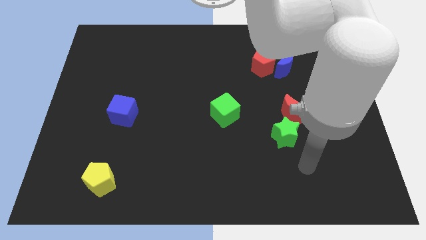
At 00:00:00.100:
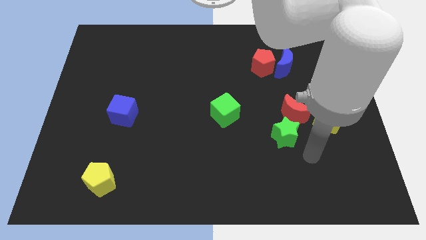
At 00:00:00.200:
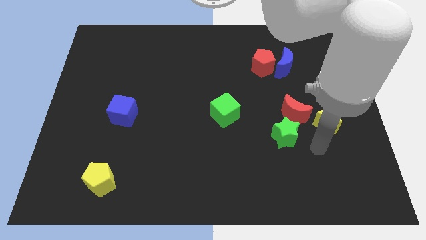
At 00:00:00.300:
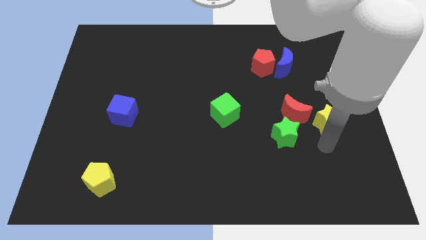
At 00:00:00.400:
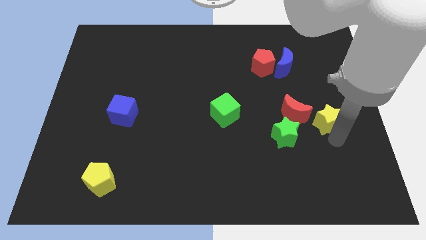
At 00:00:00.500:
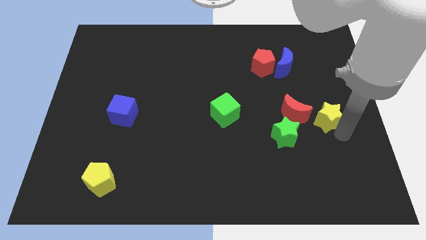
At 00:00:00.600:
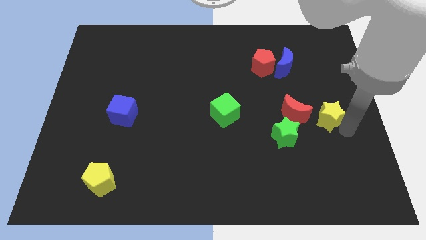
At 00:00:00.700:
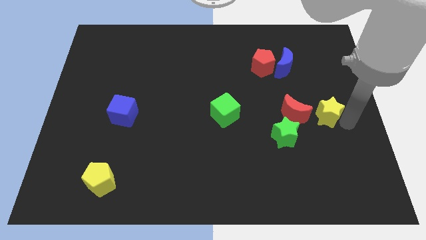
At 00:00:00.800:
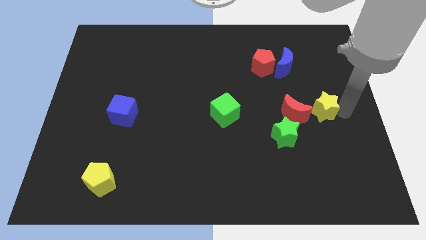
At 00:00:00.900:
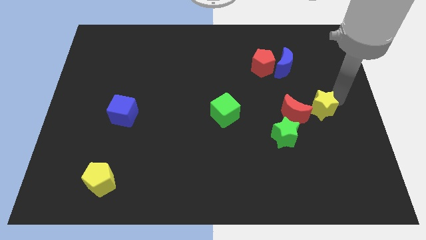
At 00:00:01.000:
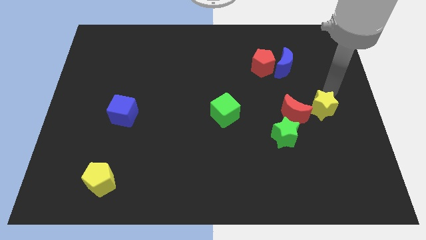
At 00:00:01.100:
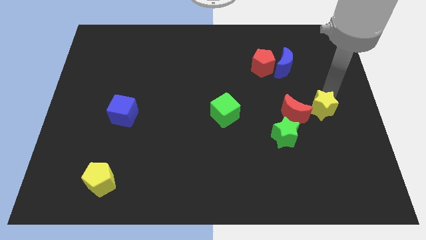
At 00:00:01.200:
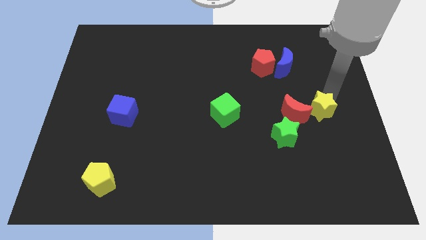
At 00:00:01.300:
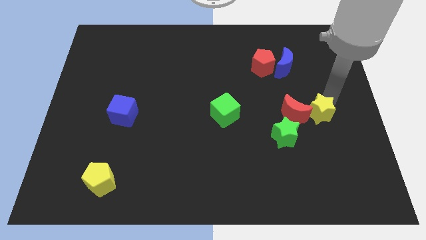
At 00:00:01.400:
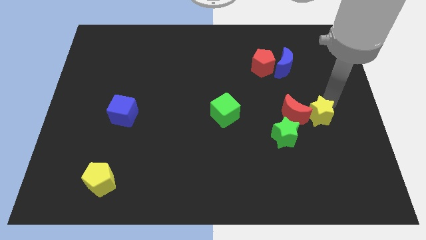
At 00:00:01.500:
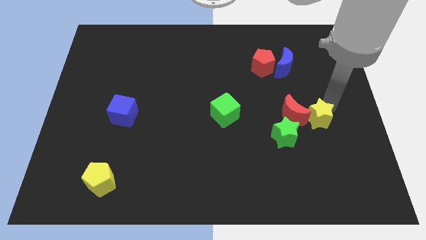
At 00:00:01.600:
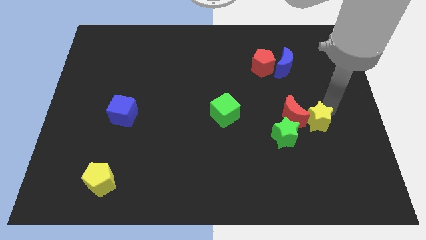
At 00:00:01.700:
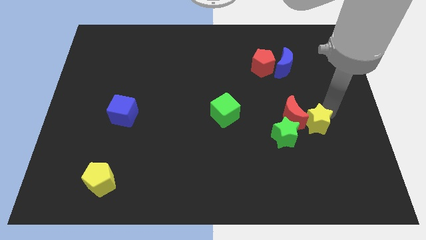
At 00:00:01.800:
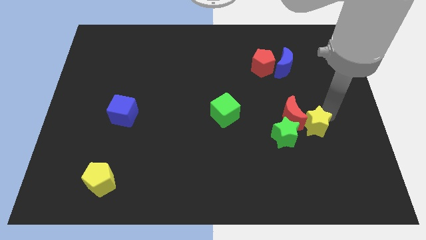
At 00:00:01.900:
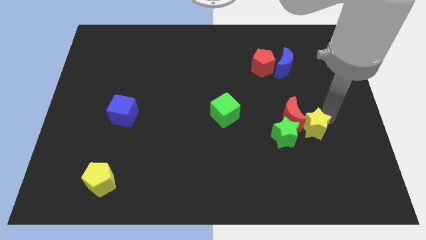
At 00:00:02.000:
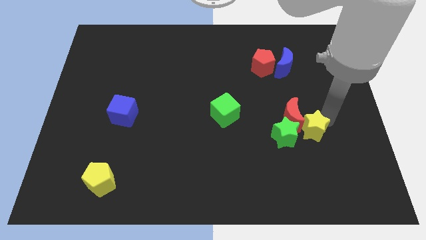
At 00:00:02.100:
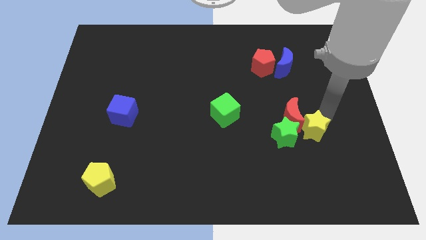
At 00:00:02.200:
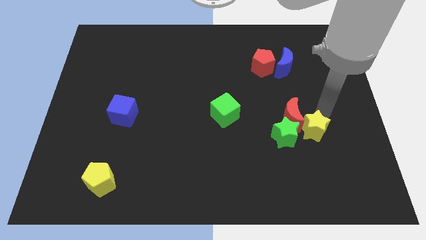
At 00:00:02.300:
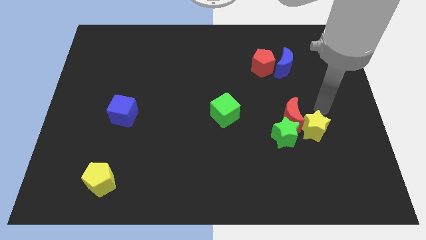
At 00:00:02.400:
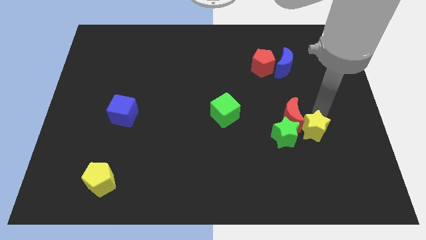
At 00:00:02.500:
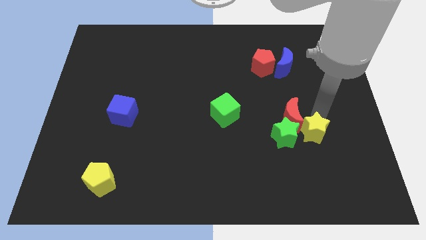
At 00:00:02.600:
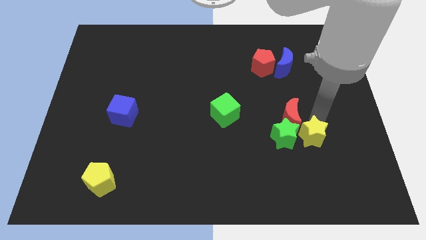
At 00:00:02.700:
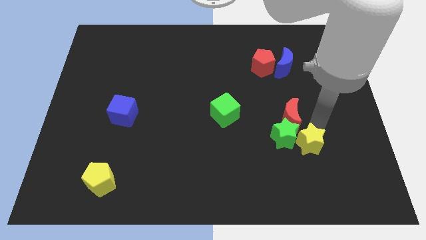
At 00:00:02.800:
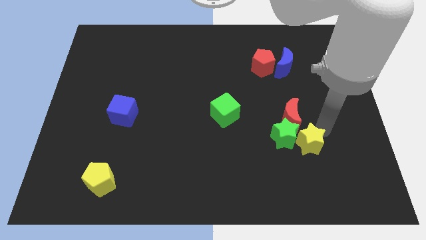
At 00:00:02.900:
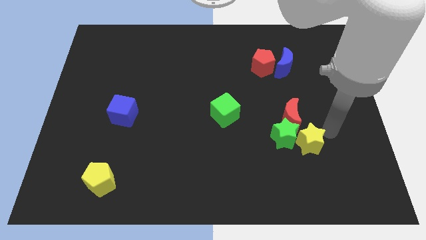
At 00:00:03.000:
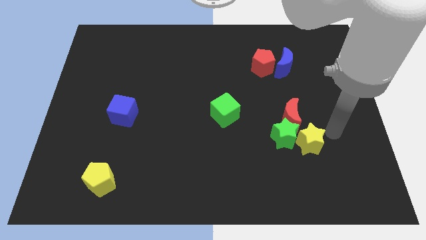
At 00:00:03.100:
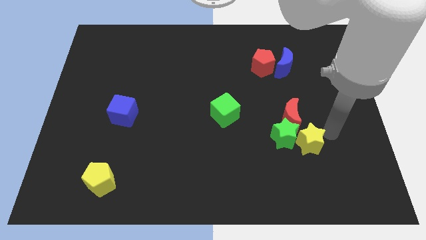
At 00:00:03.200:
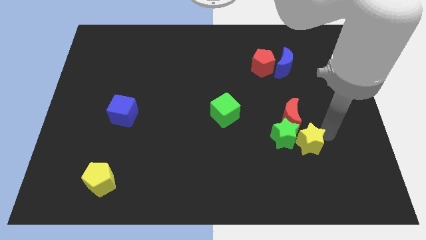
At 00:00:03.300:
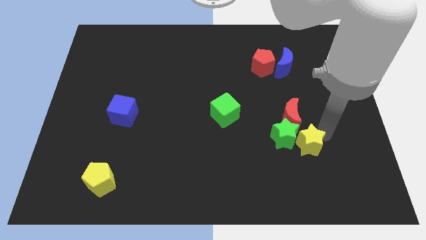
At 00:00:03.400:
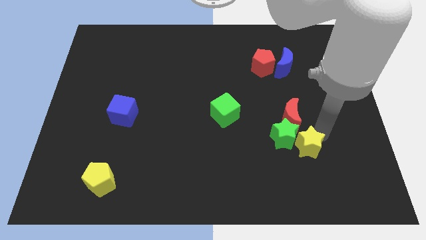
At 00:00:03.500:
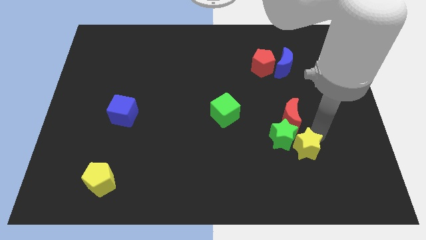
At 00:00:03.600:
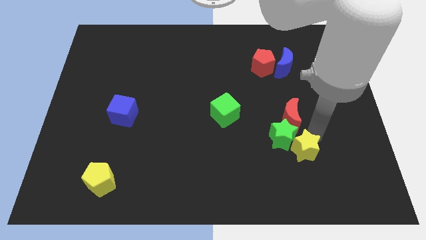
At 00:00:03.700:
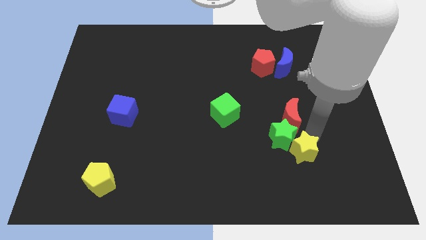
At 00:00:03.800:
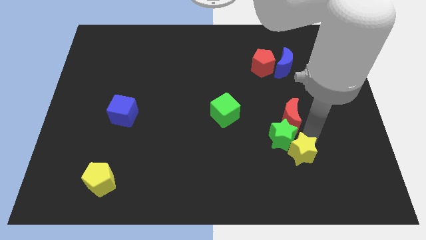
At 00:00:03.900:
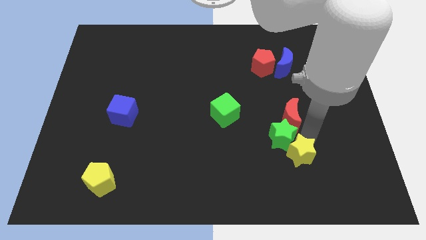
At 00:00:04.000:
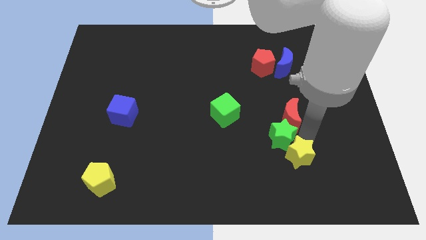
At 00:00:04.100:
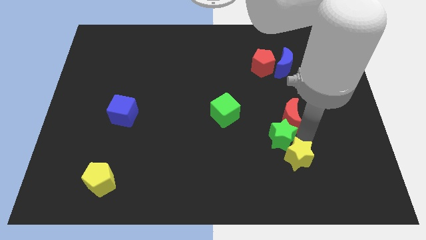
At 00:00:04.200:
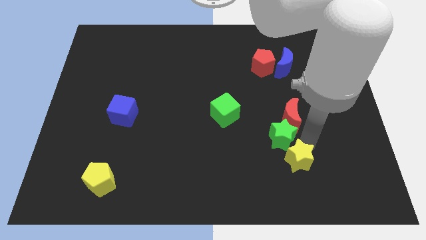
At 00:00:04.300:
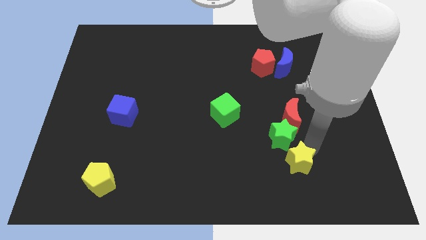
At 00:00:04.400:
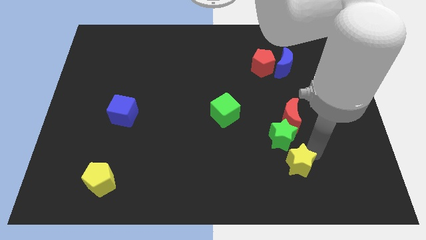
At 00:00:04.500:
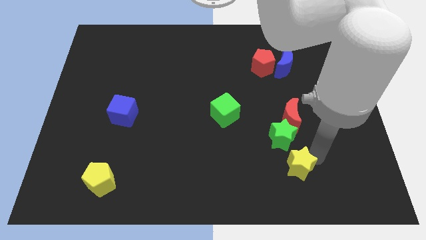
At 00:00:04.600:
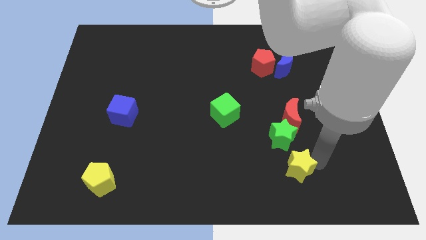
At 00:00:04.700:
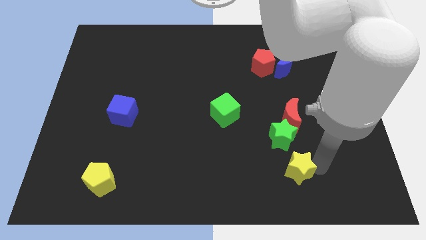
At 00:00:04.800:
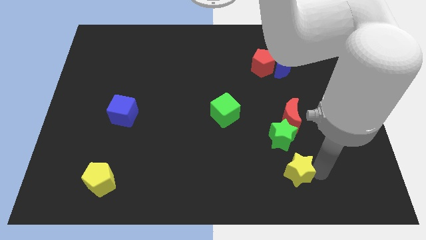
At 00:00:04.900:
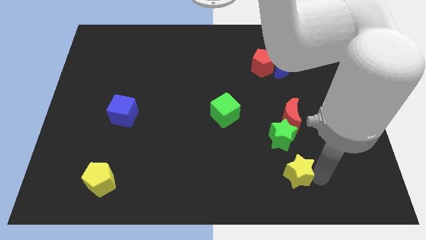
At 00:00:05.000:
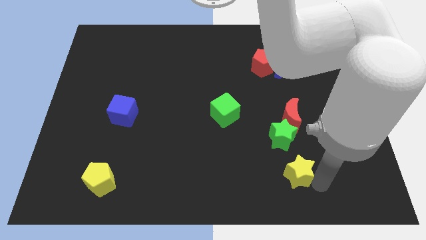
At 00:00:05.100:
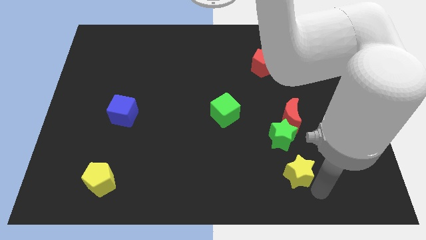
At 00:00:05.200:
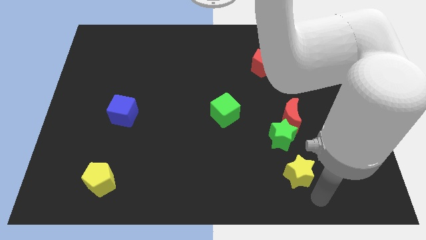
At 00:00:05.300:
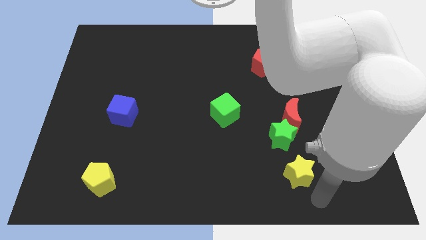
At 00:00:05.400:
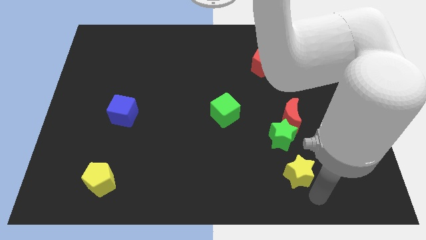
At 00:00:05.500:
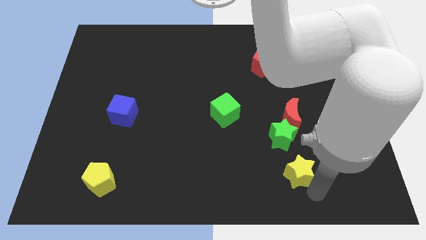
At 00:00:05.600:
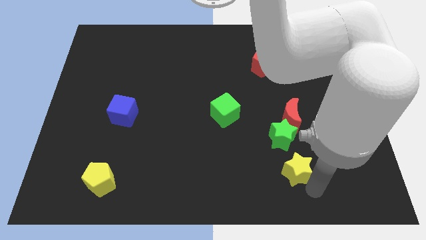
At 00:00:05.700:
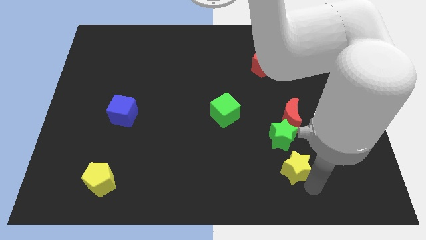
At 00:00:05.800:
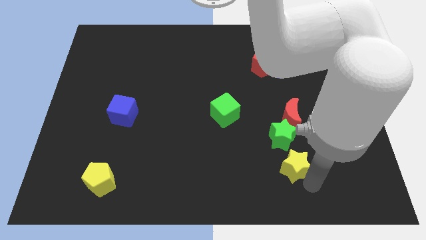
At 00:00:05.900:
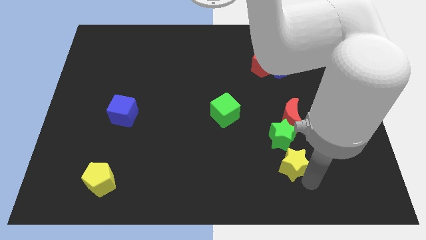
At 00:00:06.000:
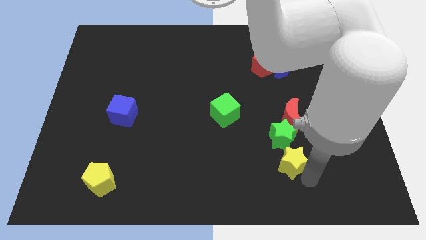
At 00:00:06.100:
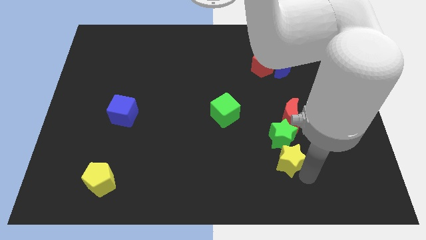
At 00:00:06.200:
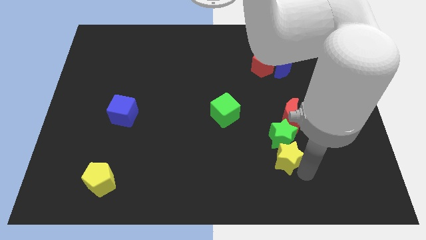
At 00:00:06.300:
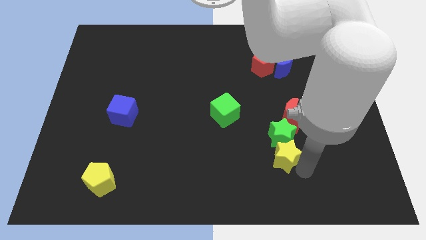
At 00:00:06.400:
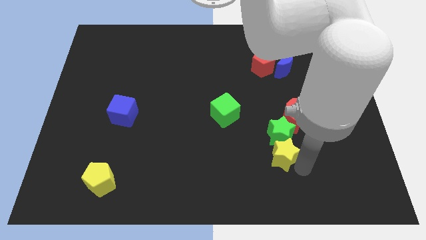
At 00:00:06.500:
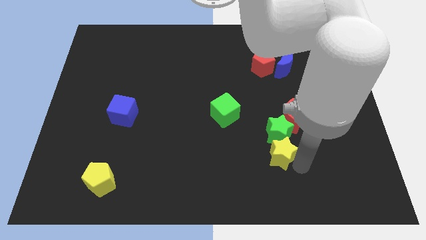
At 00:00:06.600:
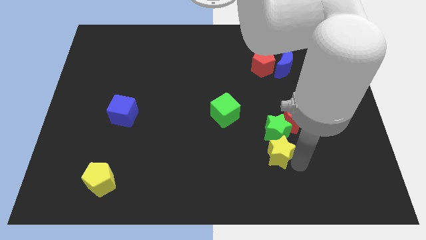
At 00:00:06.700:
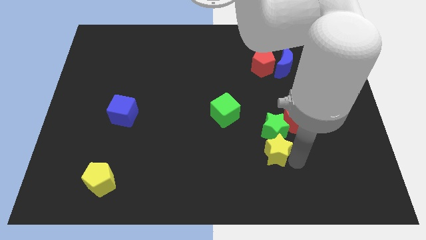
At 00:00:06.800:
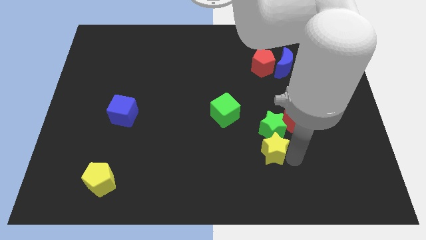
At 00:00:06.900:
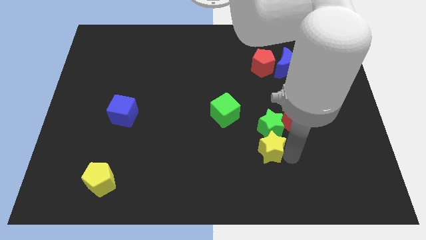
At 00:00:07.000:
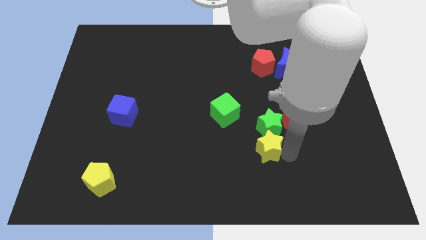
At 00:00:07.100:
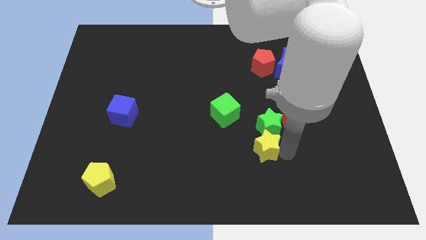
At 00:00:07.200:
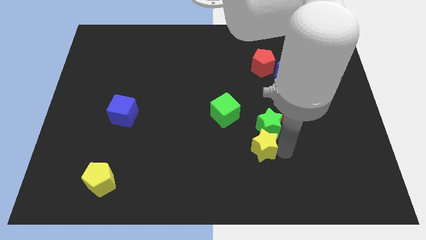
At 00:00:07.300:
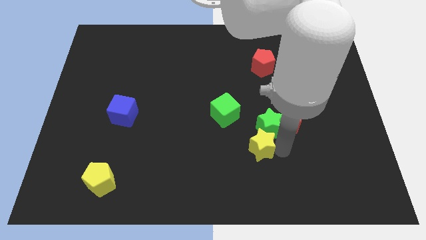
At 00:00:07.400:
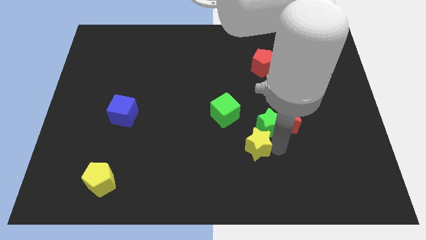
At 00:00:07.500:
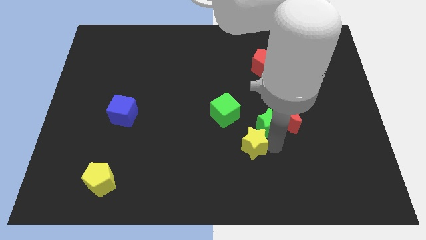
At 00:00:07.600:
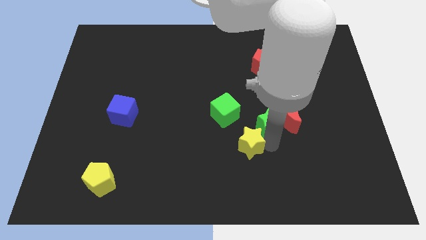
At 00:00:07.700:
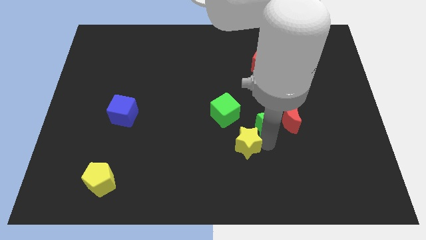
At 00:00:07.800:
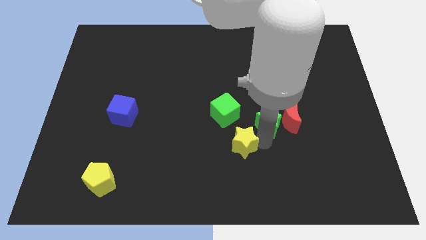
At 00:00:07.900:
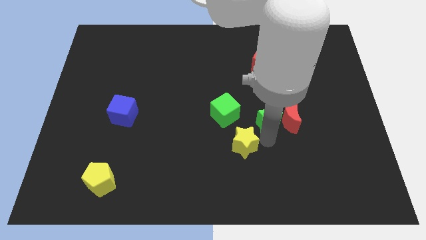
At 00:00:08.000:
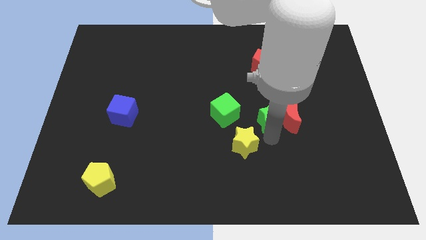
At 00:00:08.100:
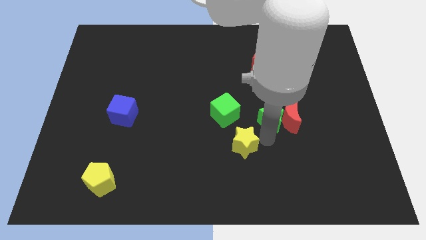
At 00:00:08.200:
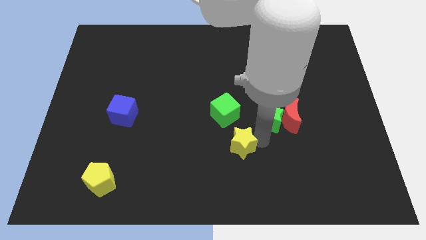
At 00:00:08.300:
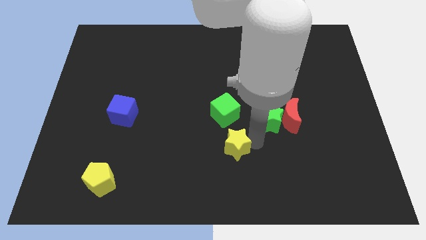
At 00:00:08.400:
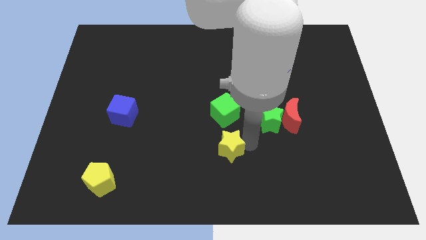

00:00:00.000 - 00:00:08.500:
slide the yellow star left

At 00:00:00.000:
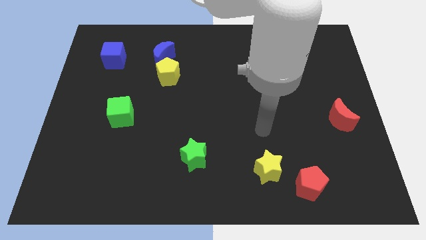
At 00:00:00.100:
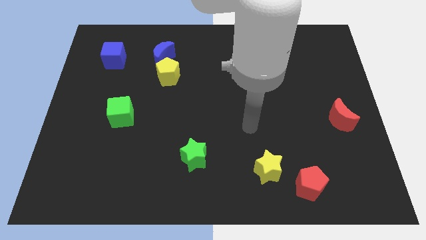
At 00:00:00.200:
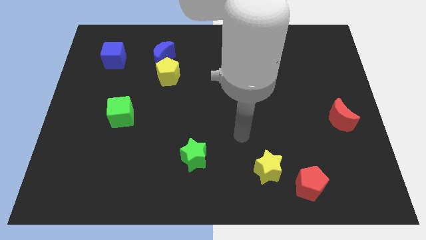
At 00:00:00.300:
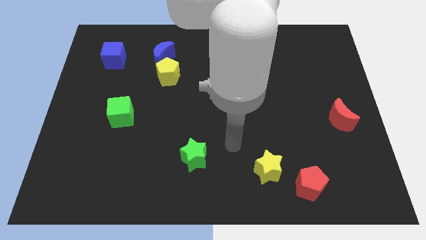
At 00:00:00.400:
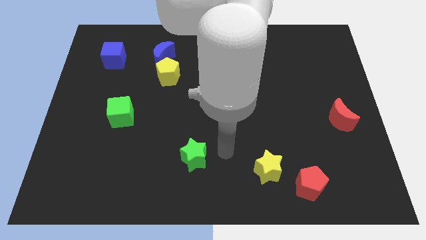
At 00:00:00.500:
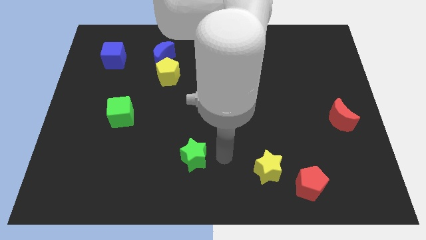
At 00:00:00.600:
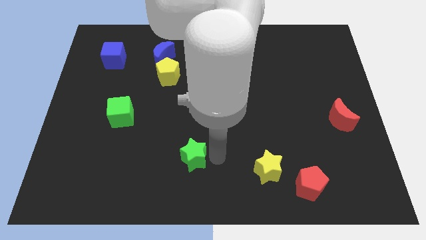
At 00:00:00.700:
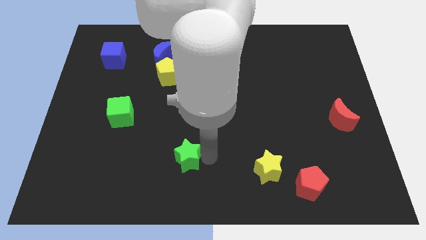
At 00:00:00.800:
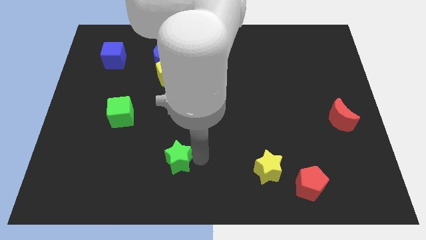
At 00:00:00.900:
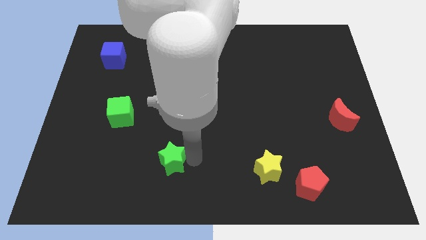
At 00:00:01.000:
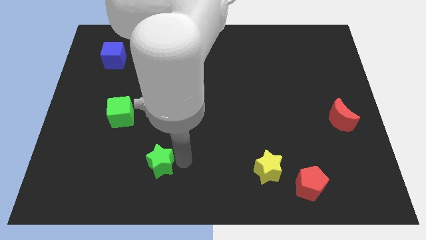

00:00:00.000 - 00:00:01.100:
slightly push the green star left
